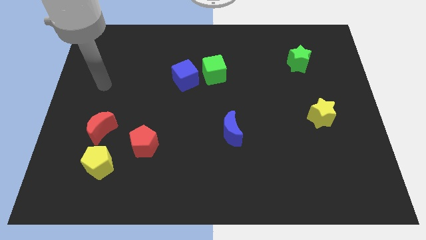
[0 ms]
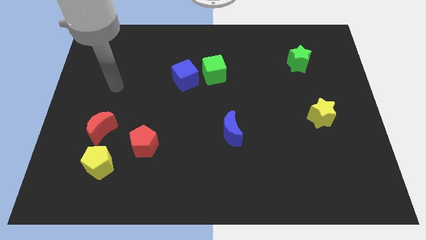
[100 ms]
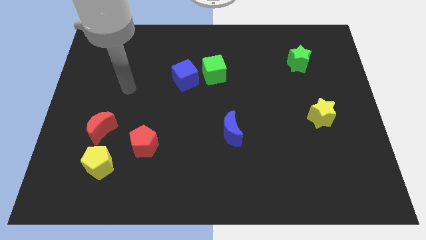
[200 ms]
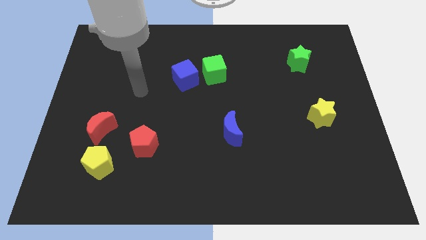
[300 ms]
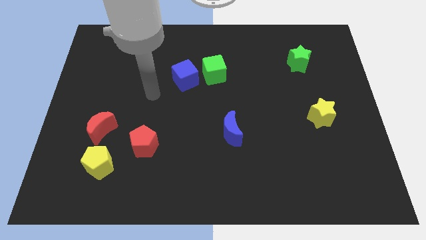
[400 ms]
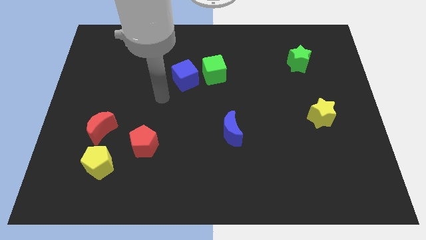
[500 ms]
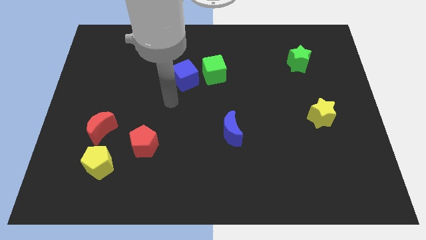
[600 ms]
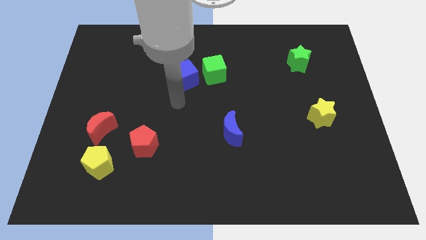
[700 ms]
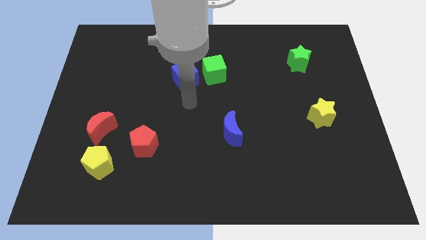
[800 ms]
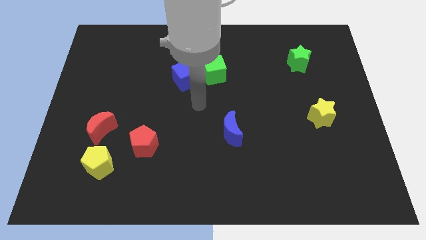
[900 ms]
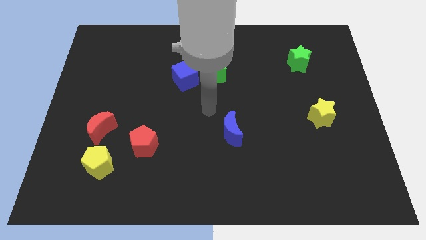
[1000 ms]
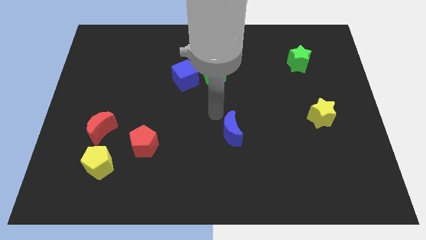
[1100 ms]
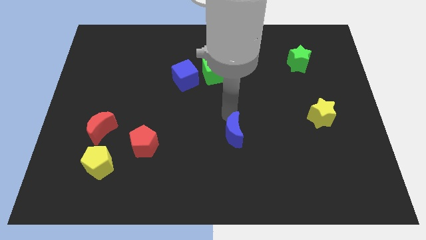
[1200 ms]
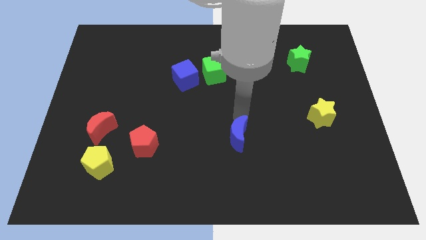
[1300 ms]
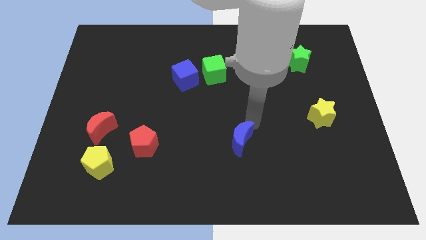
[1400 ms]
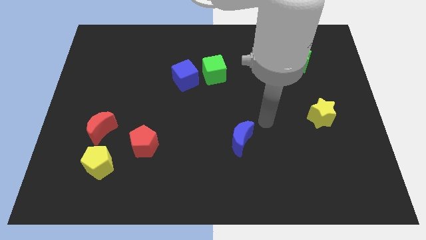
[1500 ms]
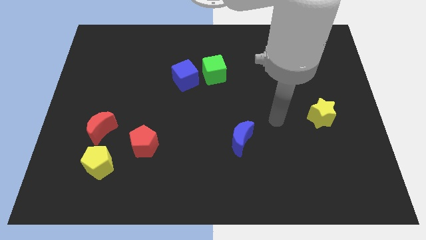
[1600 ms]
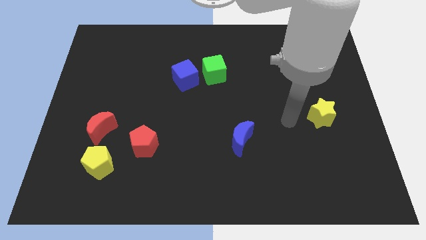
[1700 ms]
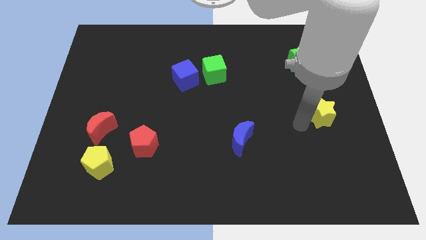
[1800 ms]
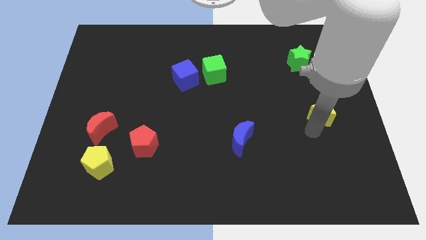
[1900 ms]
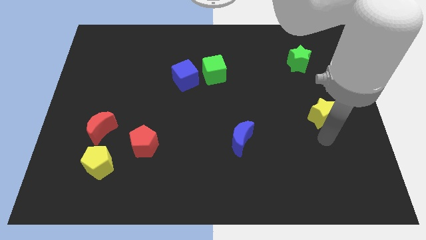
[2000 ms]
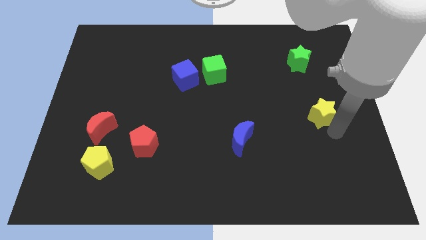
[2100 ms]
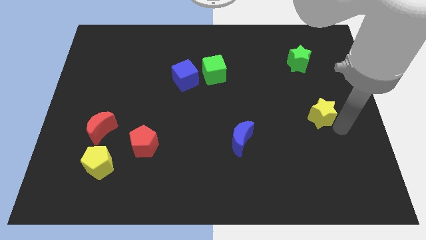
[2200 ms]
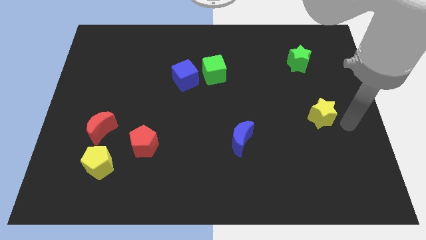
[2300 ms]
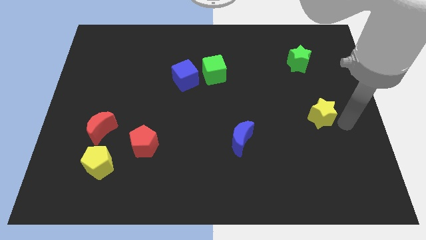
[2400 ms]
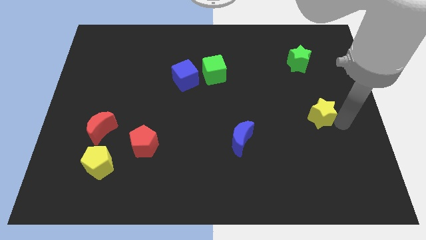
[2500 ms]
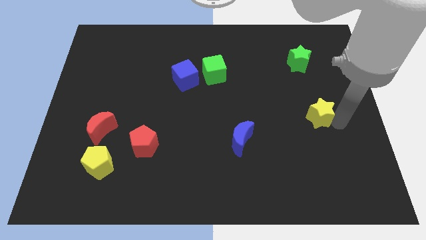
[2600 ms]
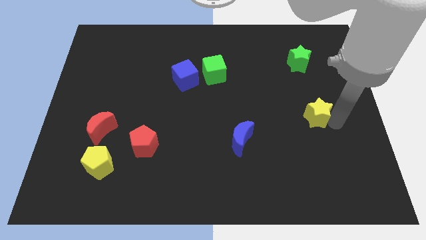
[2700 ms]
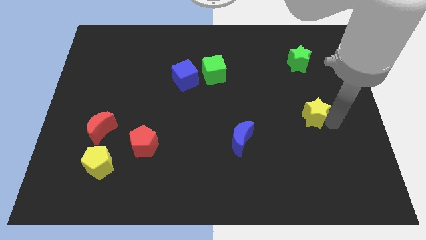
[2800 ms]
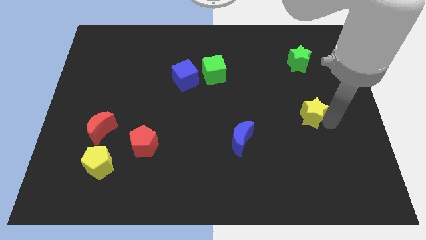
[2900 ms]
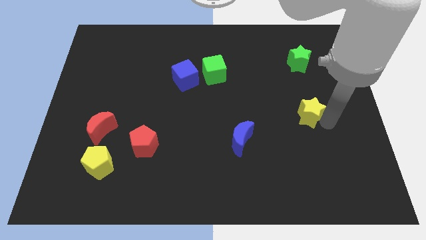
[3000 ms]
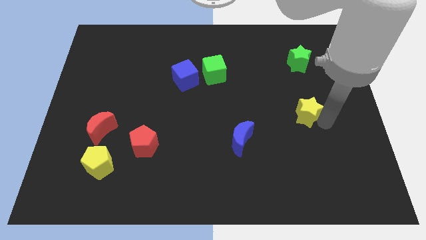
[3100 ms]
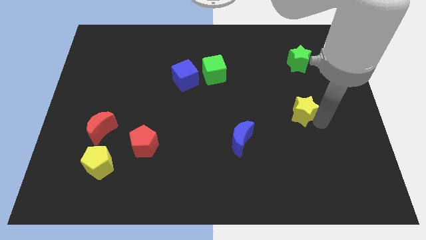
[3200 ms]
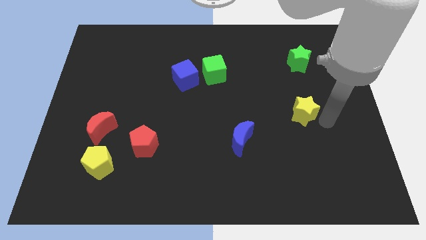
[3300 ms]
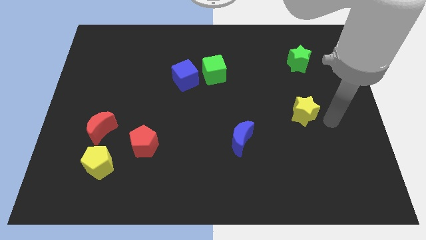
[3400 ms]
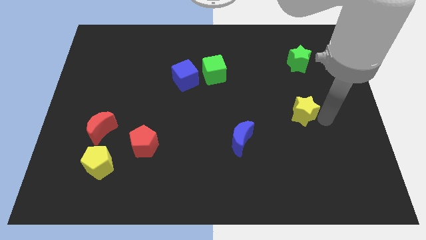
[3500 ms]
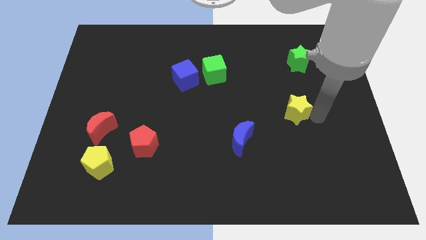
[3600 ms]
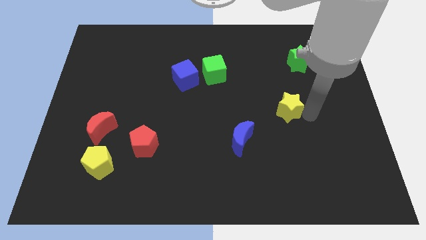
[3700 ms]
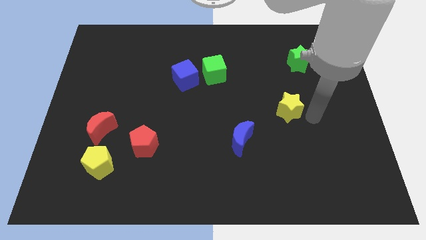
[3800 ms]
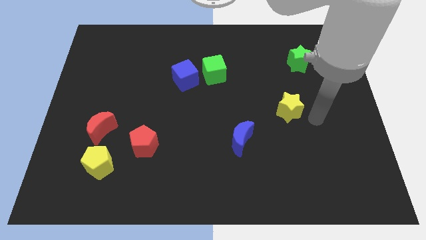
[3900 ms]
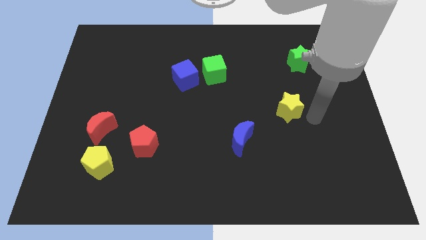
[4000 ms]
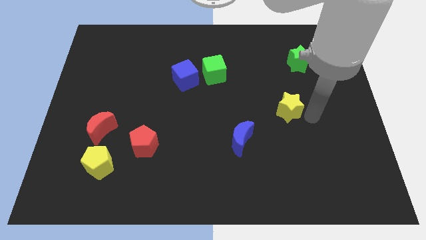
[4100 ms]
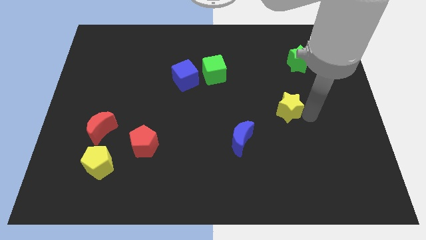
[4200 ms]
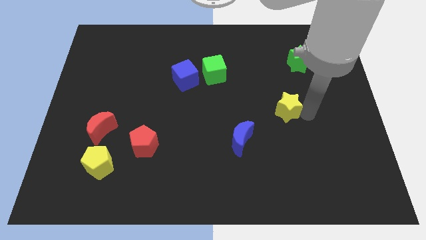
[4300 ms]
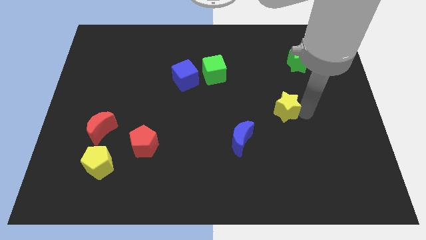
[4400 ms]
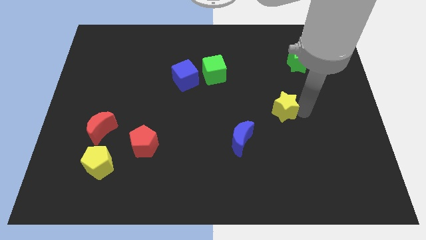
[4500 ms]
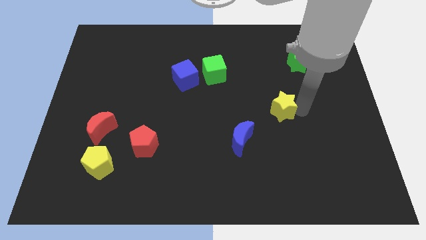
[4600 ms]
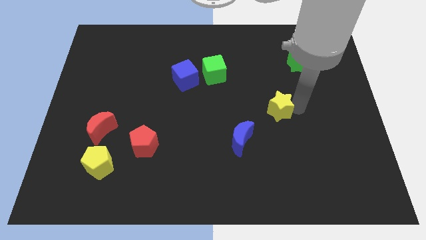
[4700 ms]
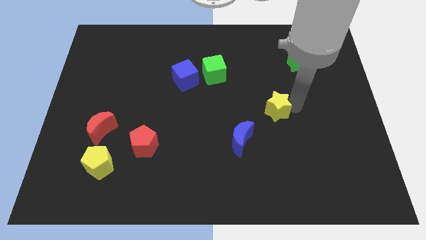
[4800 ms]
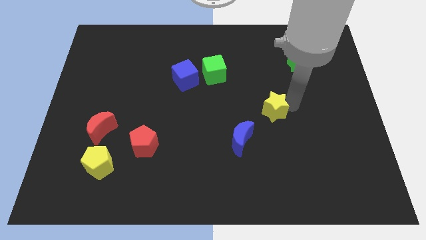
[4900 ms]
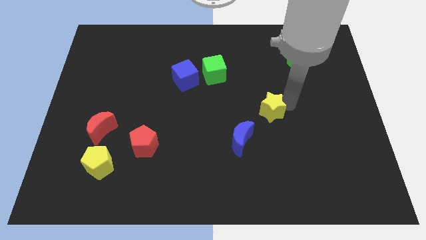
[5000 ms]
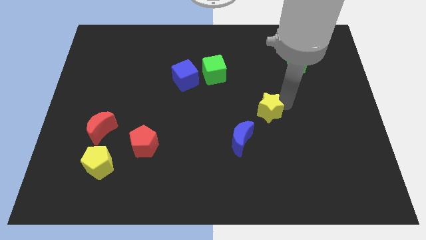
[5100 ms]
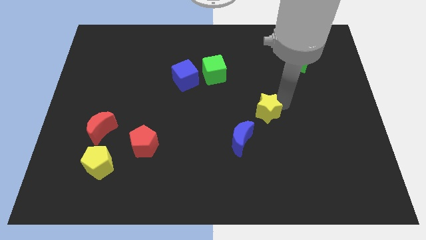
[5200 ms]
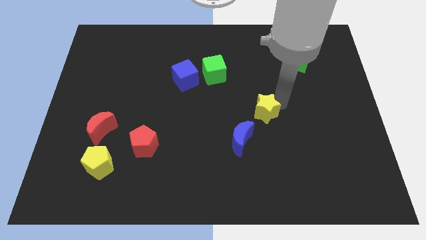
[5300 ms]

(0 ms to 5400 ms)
move the yellow star to the middle of the board

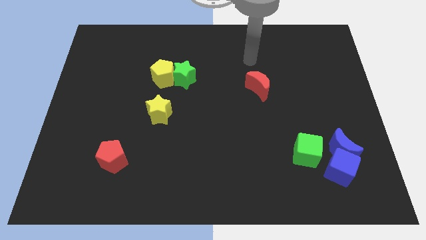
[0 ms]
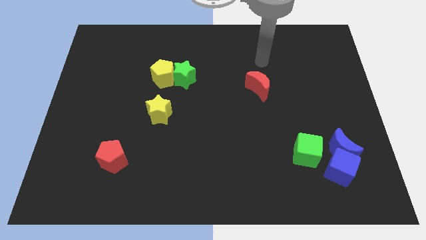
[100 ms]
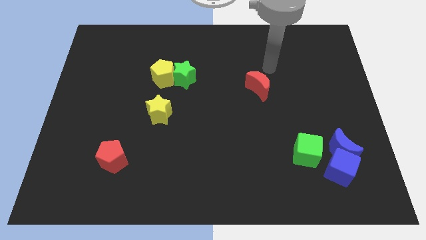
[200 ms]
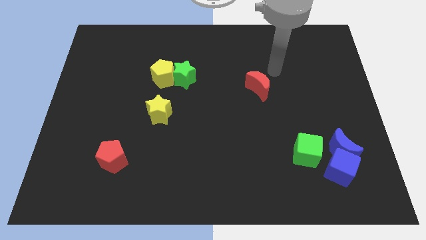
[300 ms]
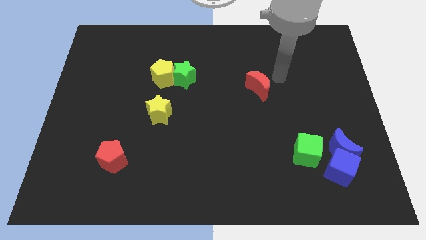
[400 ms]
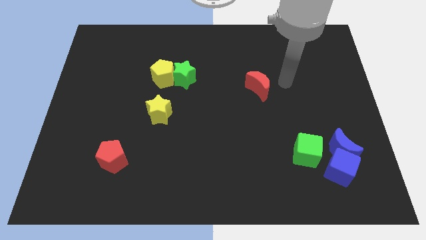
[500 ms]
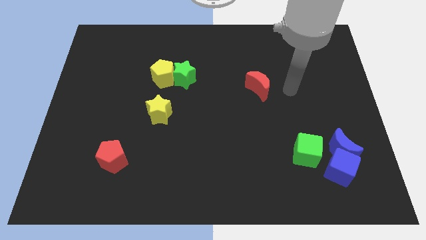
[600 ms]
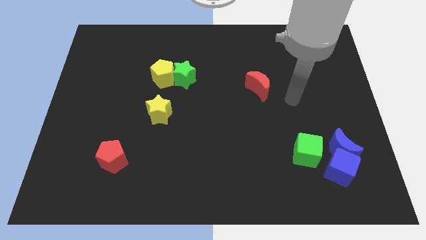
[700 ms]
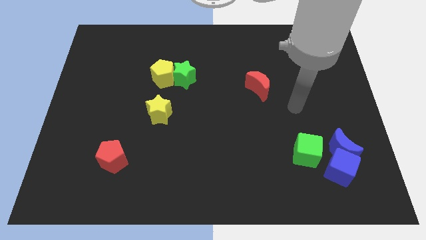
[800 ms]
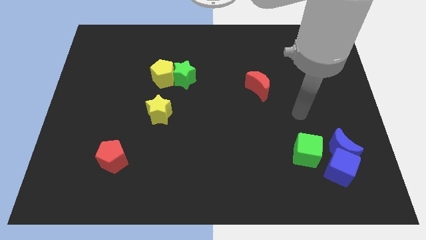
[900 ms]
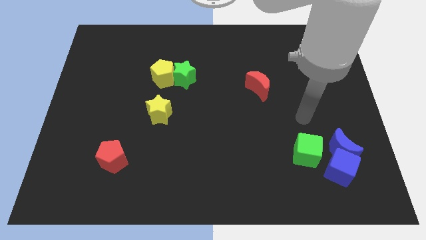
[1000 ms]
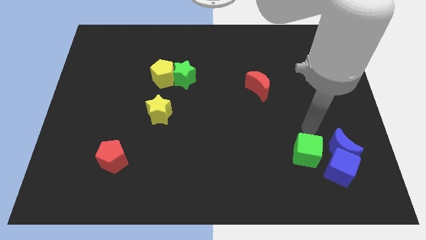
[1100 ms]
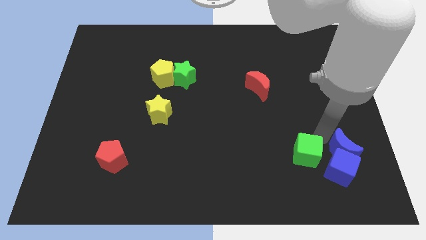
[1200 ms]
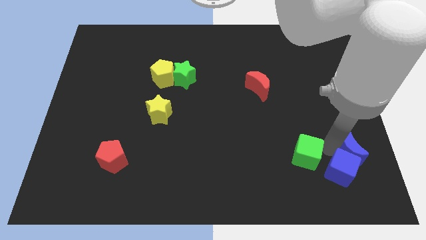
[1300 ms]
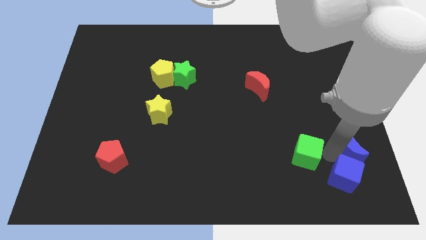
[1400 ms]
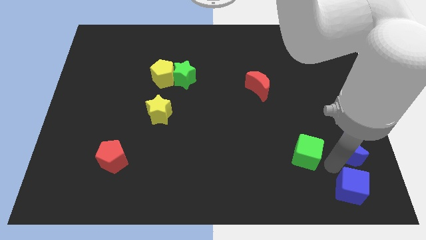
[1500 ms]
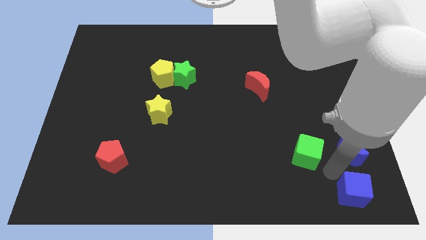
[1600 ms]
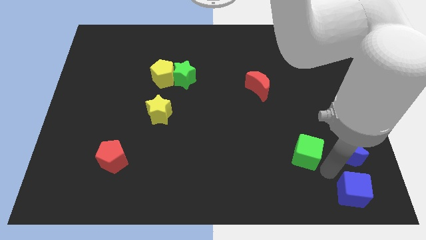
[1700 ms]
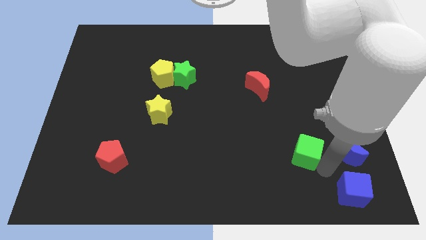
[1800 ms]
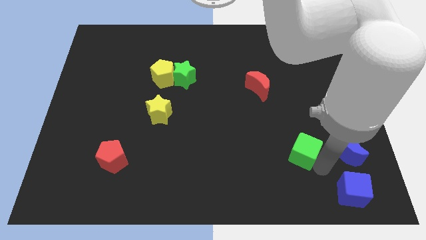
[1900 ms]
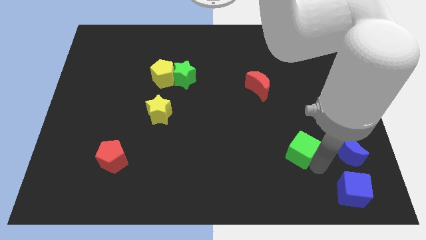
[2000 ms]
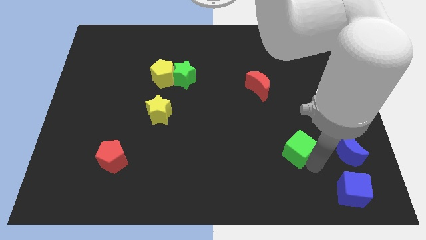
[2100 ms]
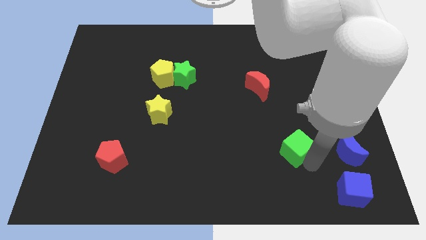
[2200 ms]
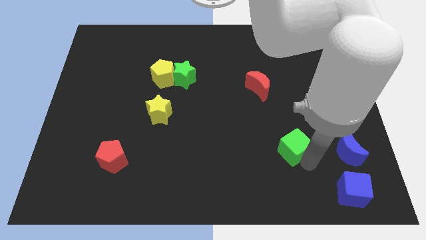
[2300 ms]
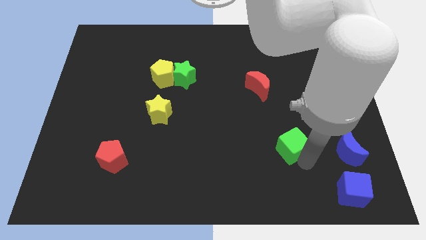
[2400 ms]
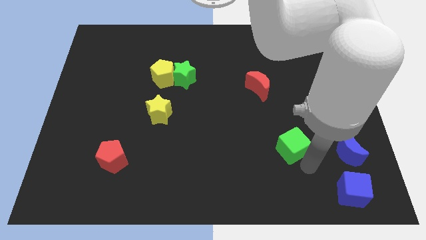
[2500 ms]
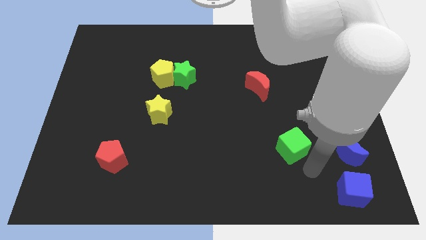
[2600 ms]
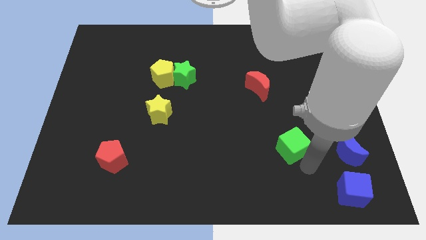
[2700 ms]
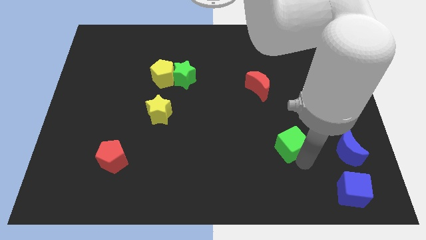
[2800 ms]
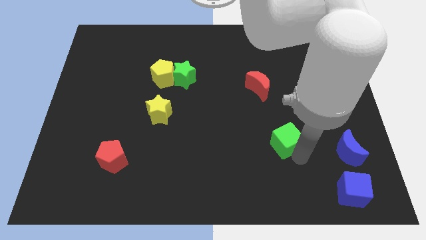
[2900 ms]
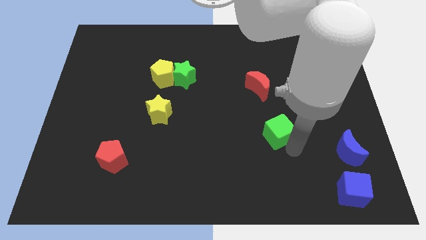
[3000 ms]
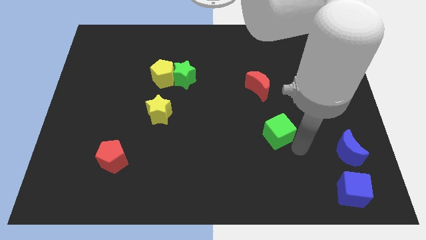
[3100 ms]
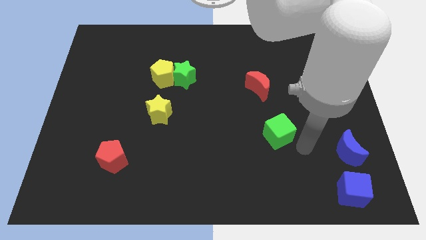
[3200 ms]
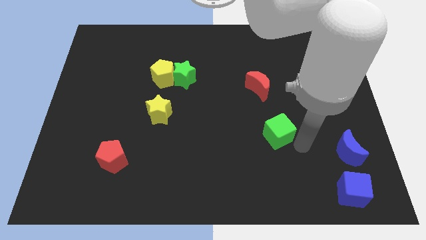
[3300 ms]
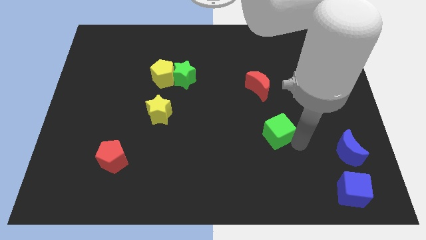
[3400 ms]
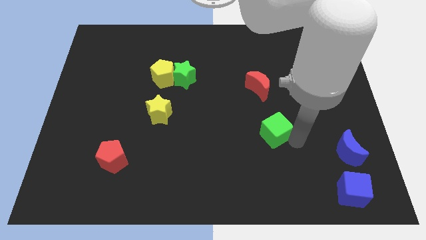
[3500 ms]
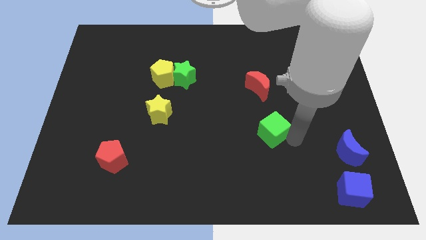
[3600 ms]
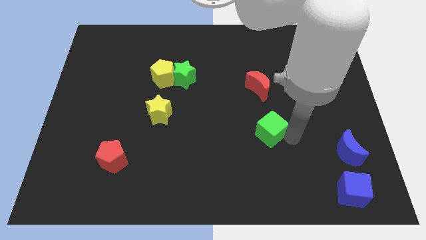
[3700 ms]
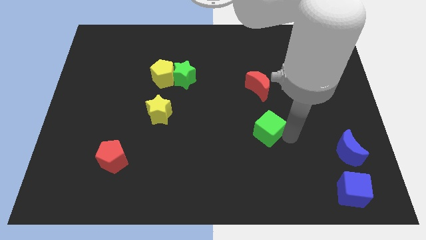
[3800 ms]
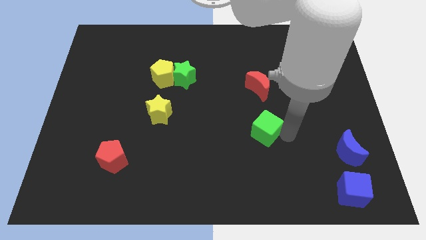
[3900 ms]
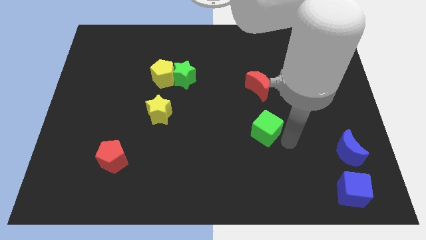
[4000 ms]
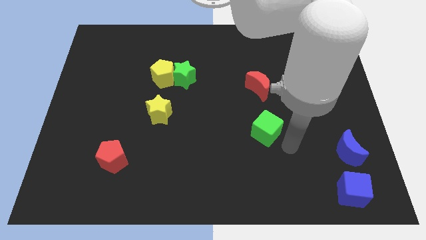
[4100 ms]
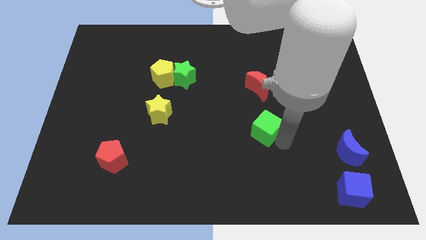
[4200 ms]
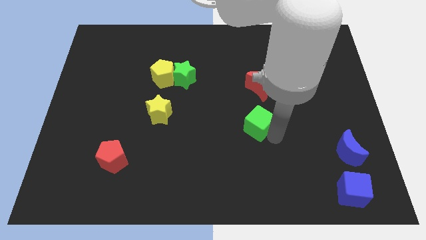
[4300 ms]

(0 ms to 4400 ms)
move the green cube to the middle
